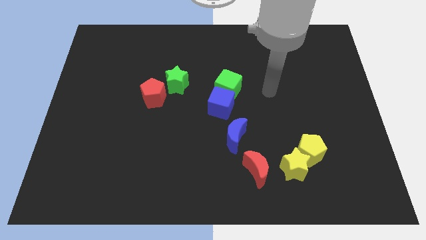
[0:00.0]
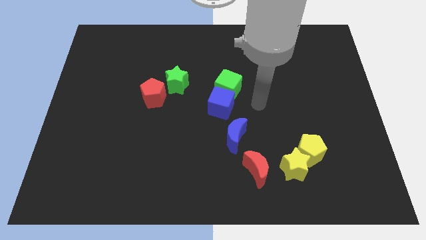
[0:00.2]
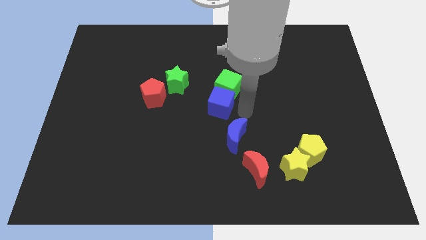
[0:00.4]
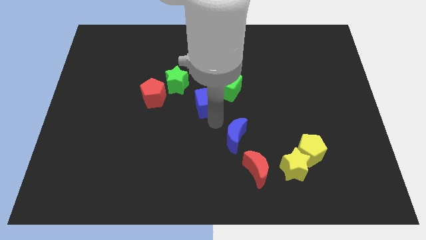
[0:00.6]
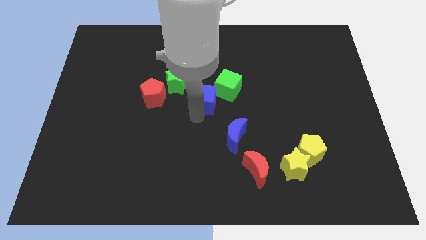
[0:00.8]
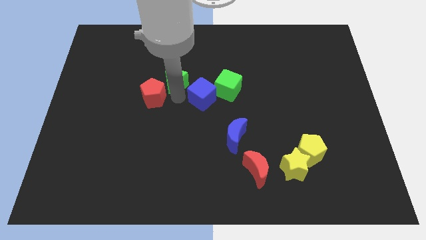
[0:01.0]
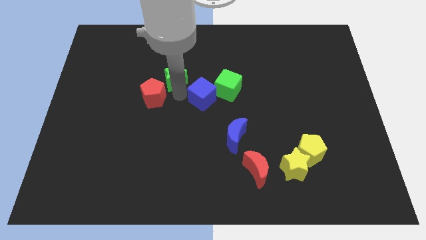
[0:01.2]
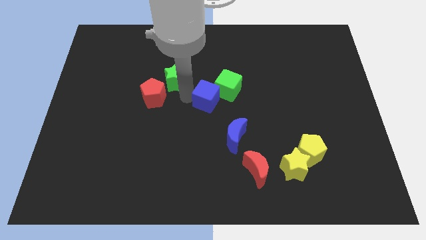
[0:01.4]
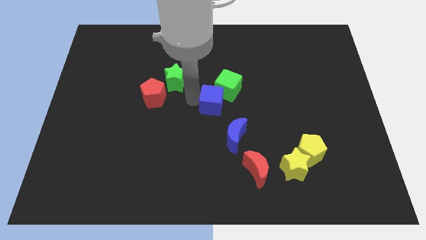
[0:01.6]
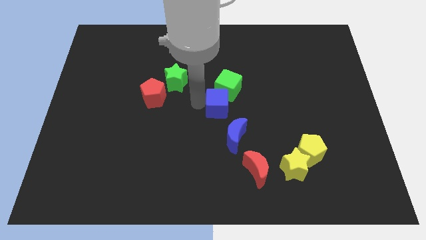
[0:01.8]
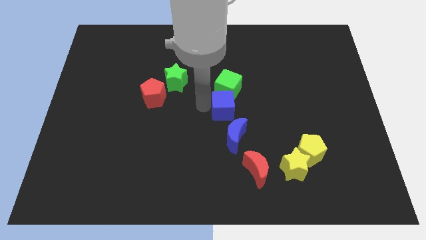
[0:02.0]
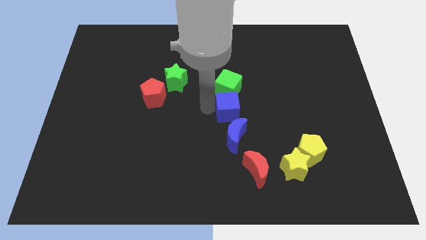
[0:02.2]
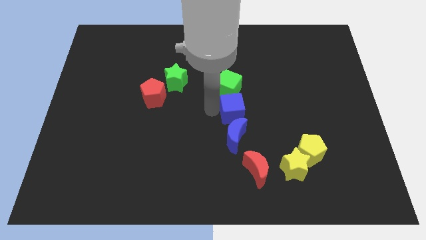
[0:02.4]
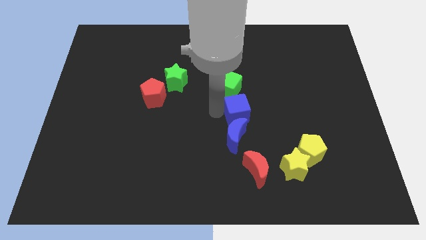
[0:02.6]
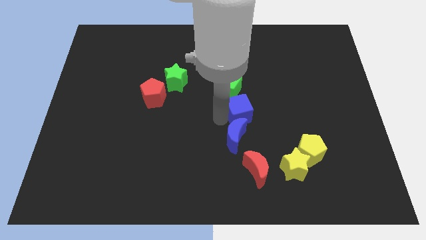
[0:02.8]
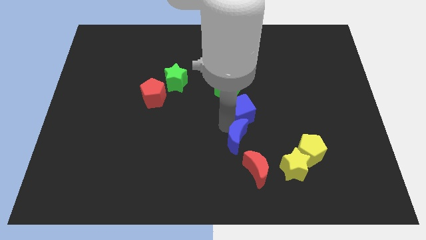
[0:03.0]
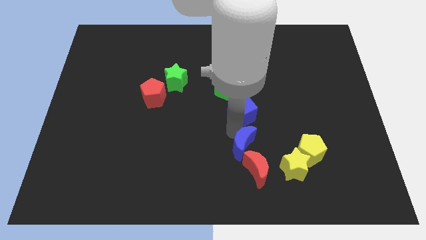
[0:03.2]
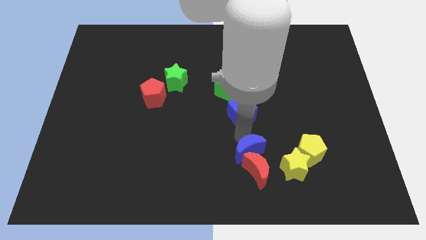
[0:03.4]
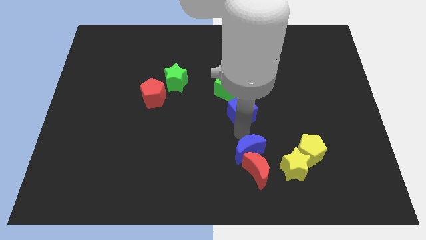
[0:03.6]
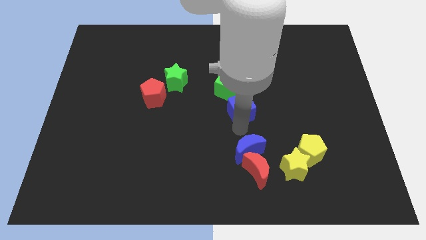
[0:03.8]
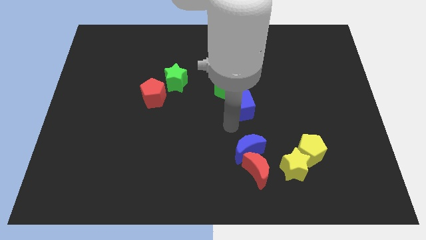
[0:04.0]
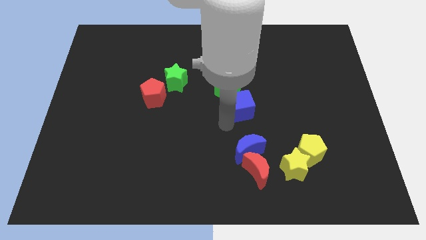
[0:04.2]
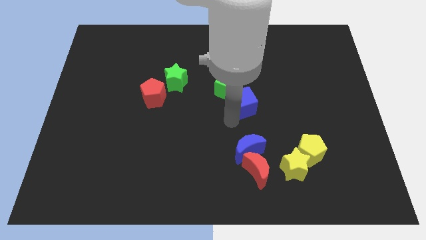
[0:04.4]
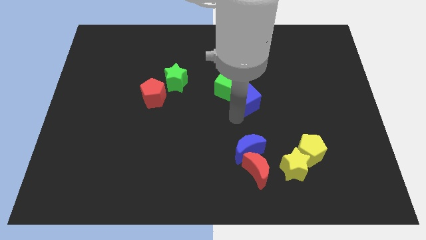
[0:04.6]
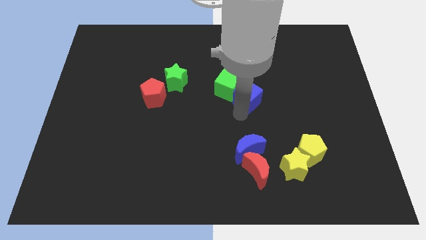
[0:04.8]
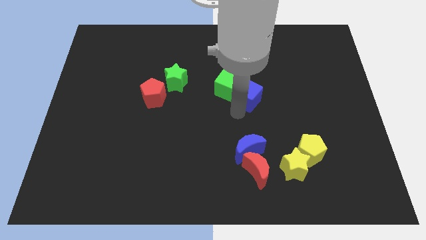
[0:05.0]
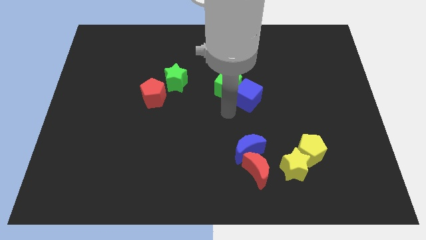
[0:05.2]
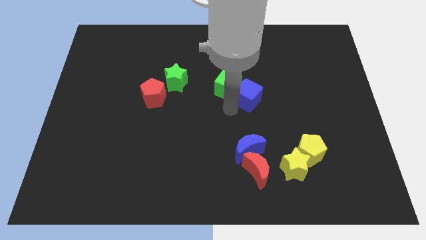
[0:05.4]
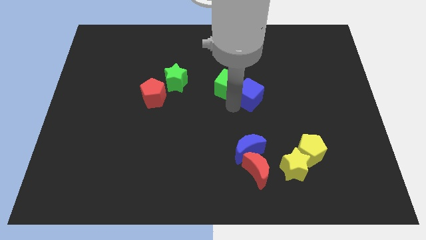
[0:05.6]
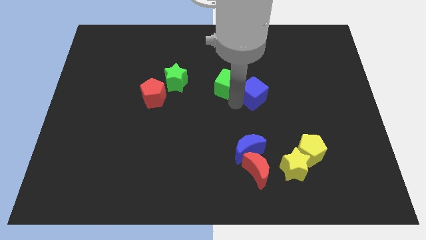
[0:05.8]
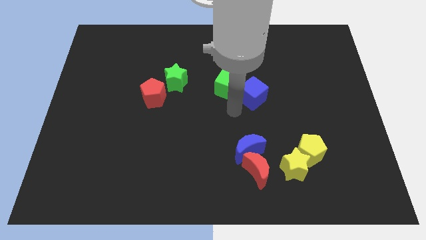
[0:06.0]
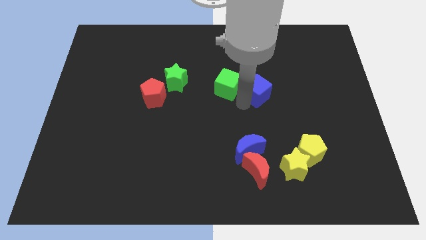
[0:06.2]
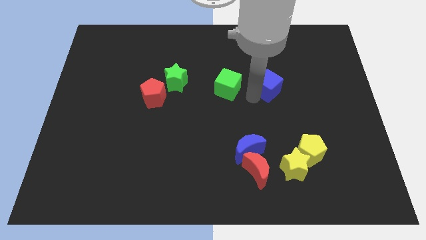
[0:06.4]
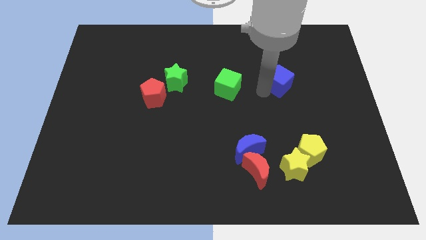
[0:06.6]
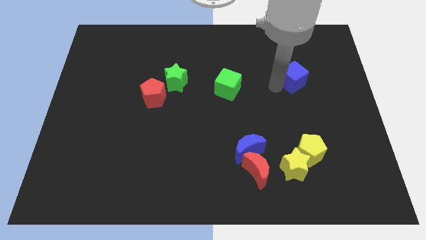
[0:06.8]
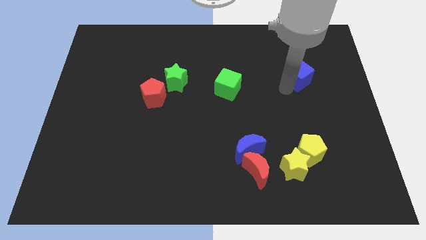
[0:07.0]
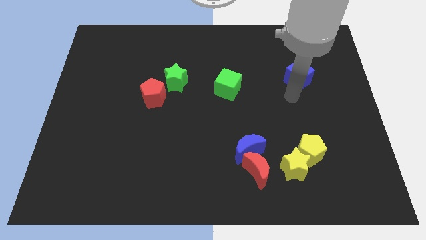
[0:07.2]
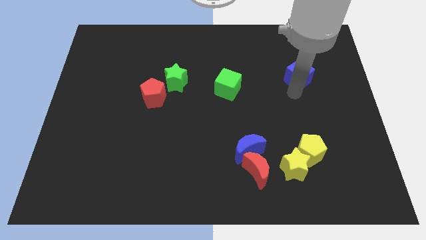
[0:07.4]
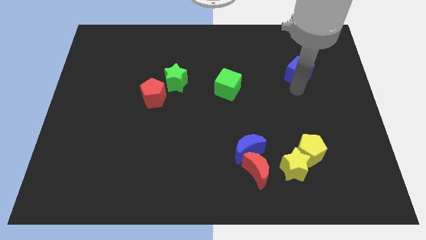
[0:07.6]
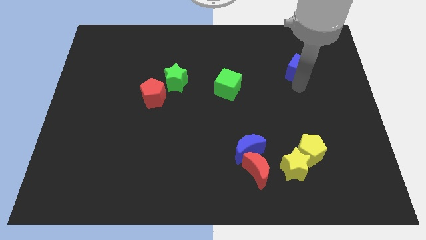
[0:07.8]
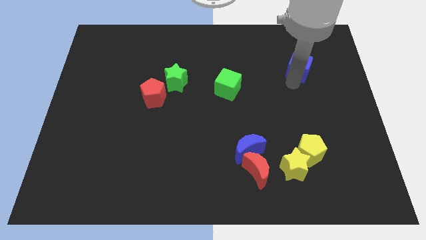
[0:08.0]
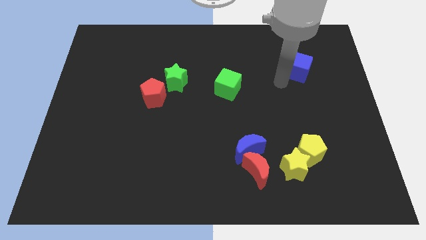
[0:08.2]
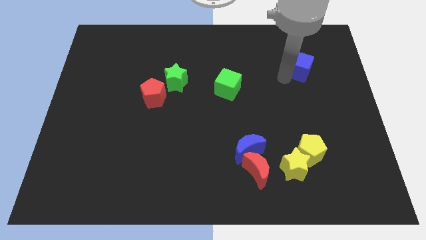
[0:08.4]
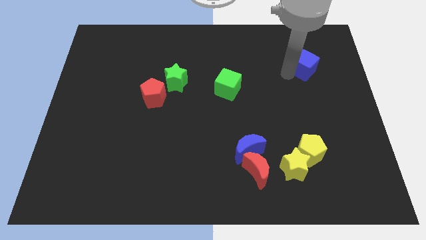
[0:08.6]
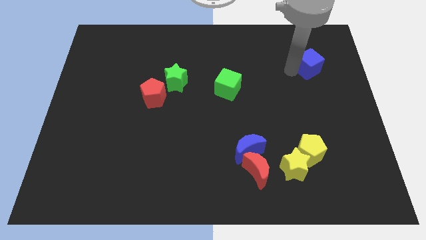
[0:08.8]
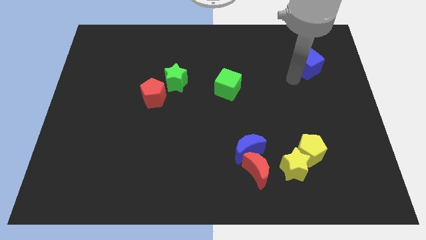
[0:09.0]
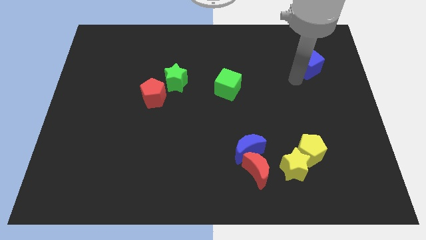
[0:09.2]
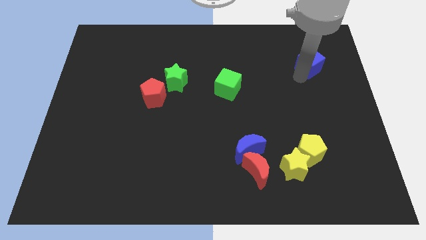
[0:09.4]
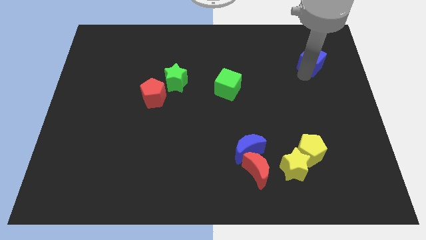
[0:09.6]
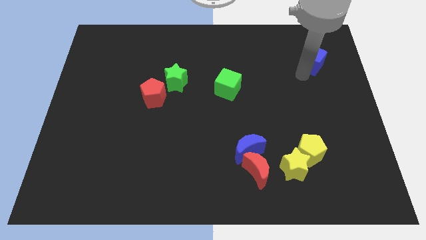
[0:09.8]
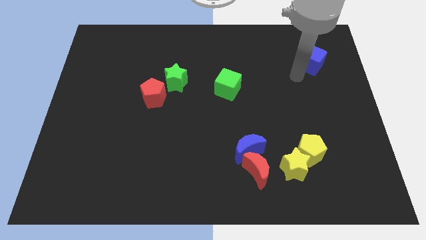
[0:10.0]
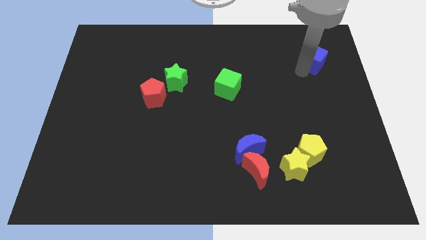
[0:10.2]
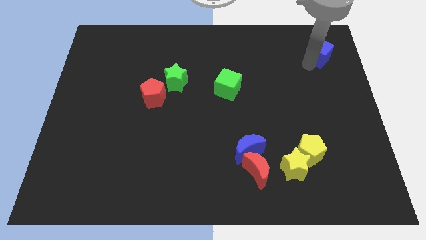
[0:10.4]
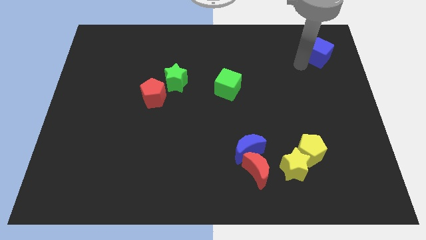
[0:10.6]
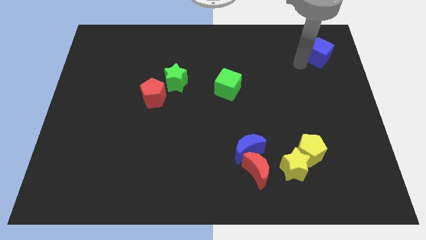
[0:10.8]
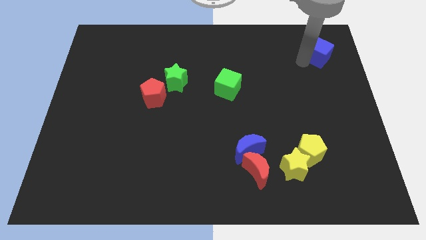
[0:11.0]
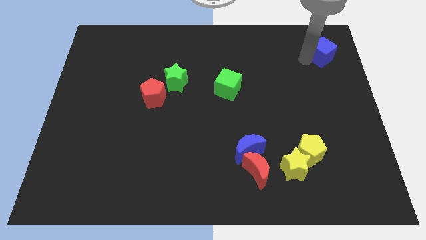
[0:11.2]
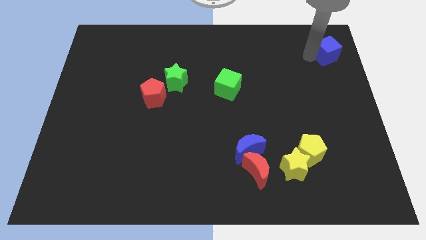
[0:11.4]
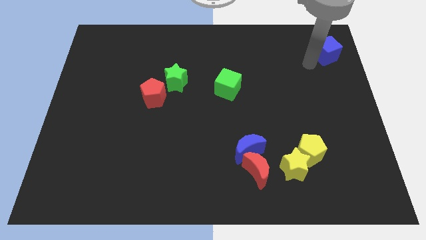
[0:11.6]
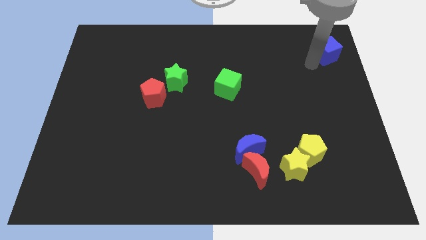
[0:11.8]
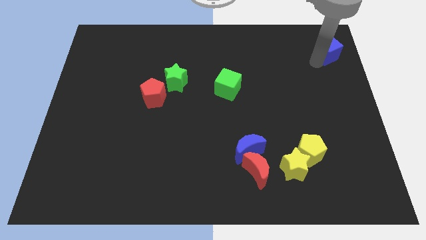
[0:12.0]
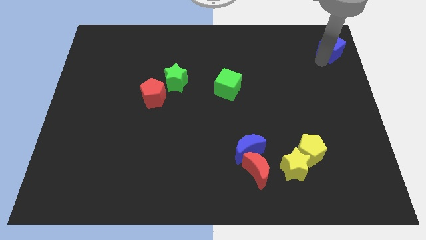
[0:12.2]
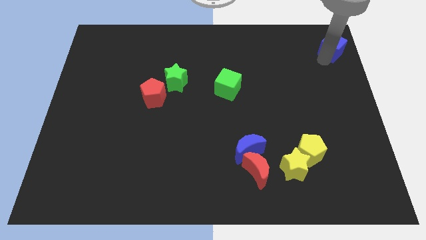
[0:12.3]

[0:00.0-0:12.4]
slide the blue cube to the top right
